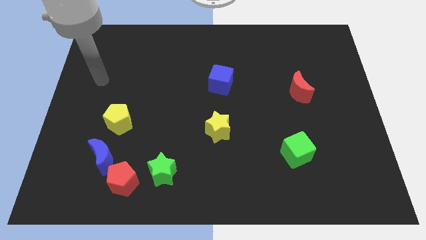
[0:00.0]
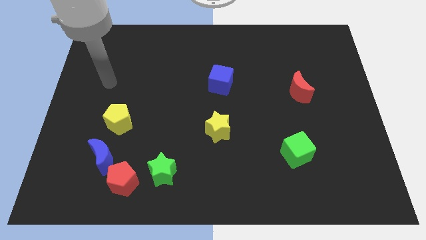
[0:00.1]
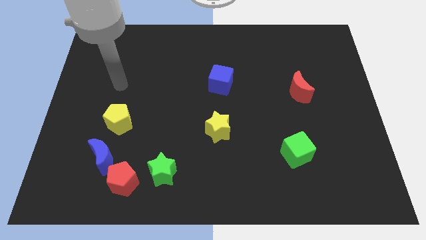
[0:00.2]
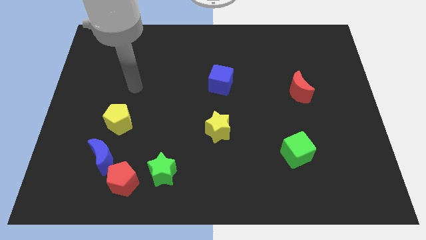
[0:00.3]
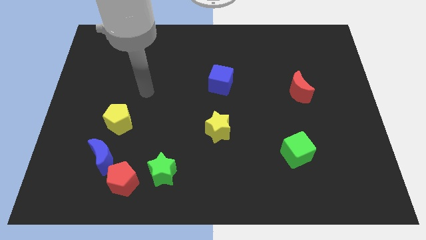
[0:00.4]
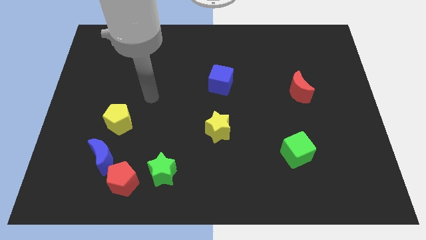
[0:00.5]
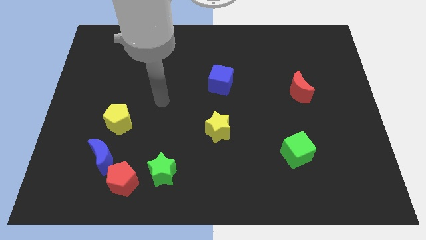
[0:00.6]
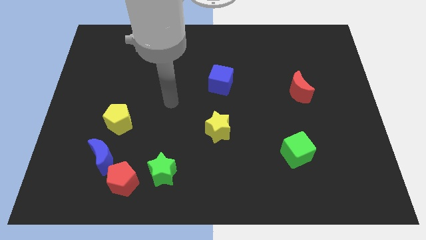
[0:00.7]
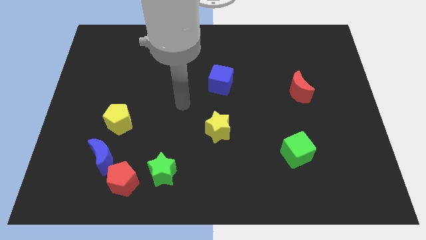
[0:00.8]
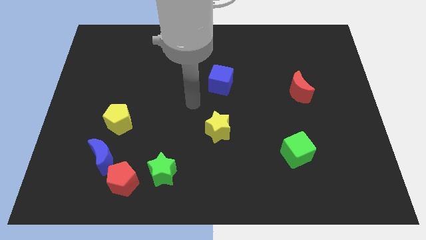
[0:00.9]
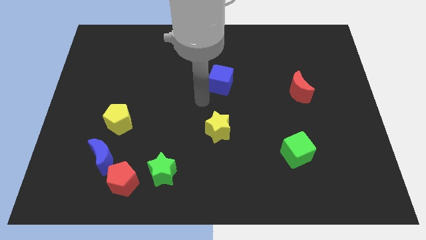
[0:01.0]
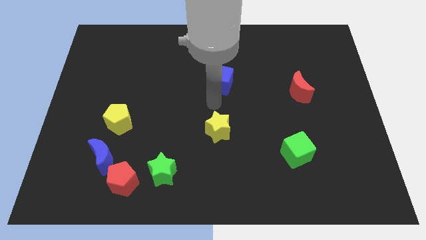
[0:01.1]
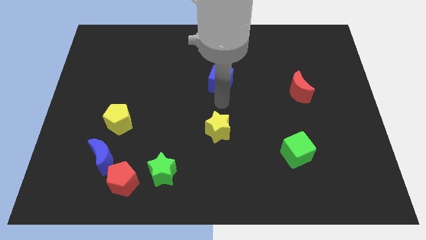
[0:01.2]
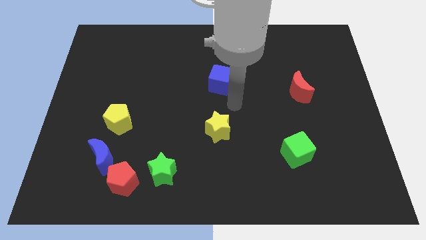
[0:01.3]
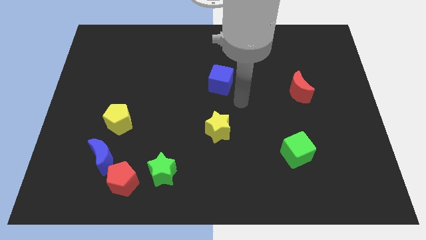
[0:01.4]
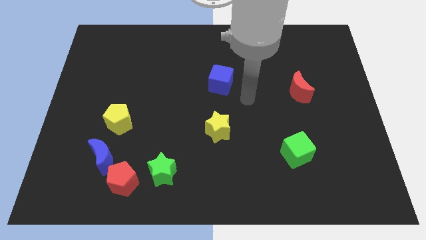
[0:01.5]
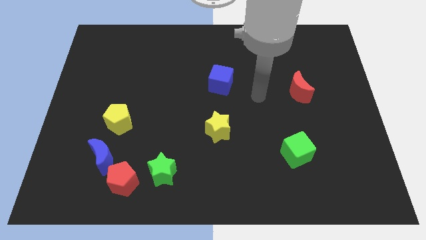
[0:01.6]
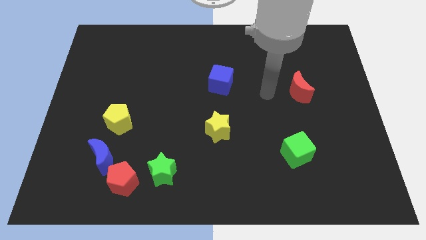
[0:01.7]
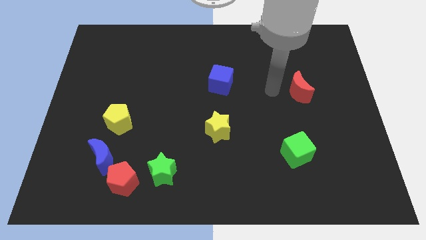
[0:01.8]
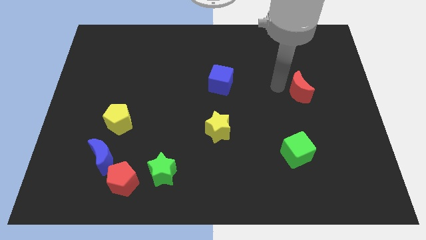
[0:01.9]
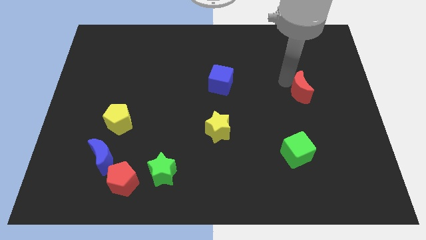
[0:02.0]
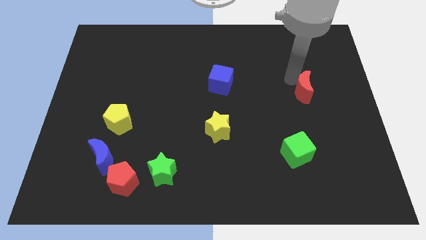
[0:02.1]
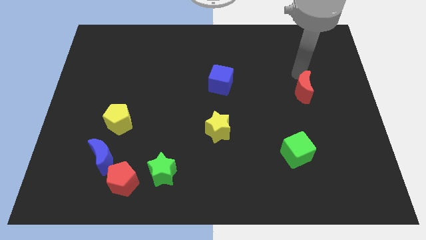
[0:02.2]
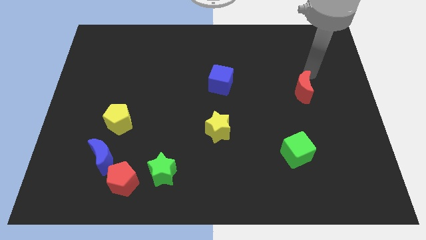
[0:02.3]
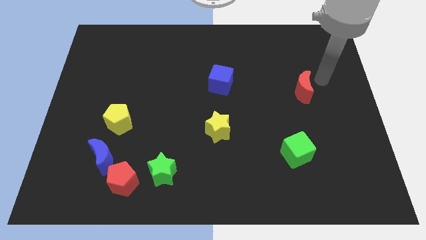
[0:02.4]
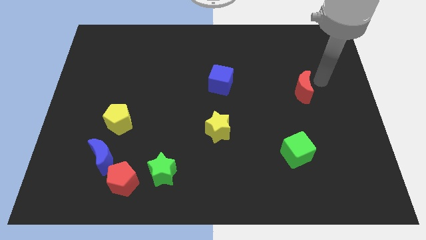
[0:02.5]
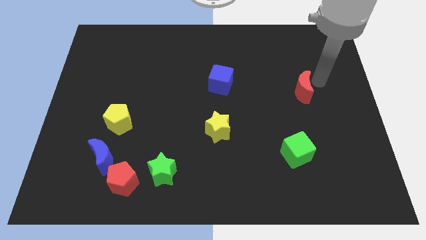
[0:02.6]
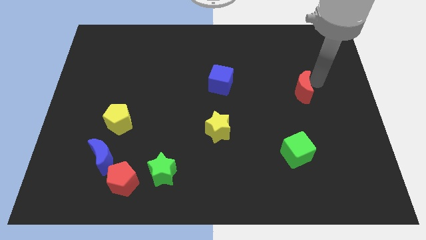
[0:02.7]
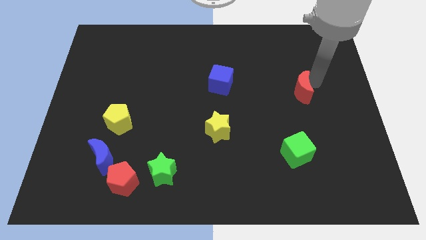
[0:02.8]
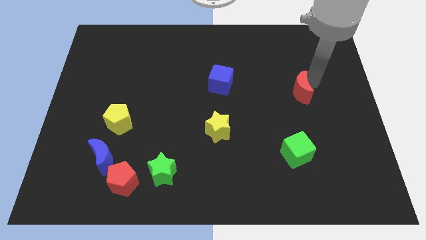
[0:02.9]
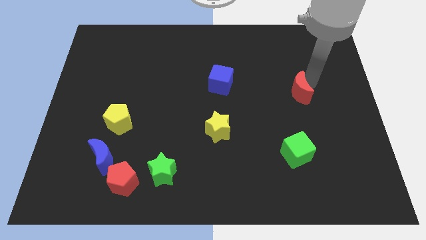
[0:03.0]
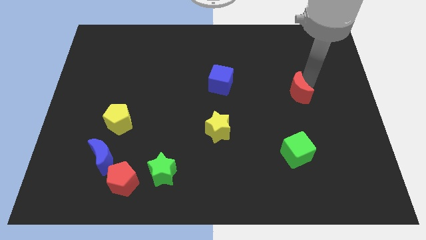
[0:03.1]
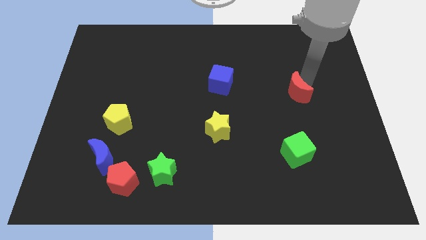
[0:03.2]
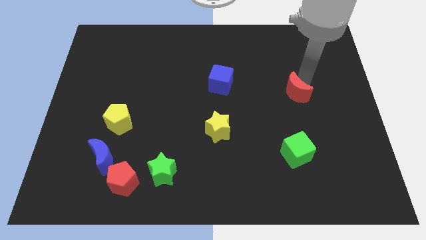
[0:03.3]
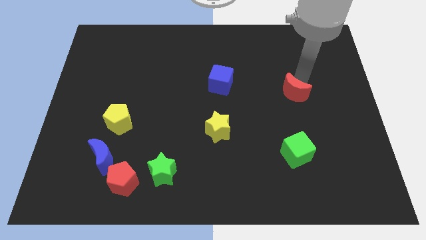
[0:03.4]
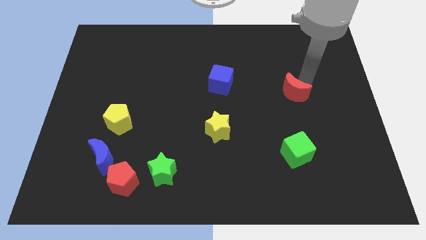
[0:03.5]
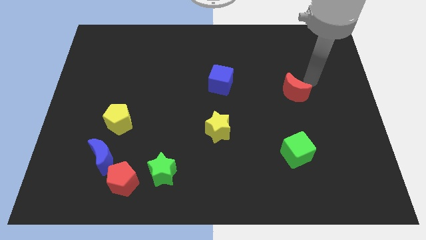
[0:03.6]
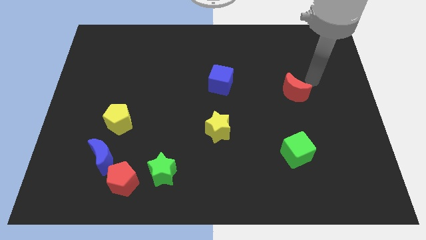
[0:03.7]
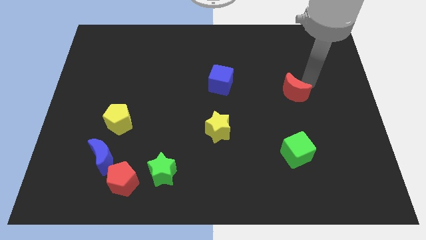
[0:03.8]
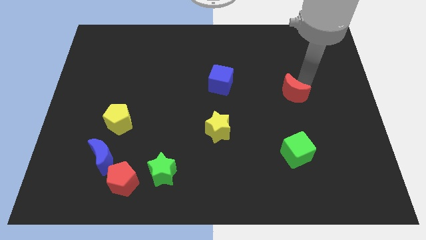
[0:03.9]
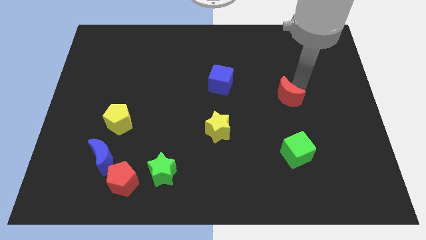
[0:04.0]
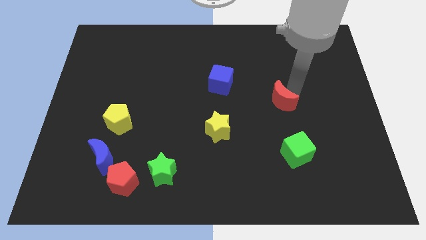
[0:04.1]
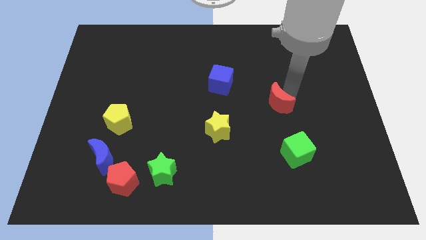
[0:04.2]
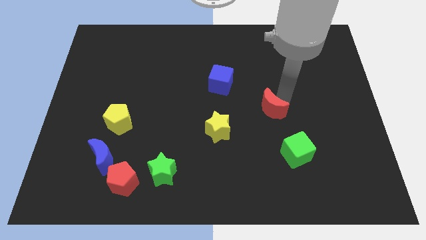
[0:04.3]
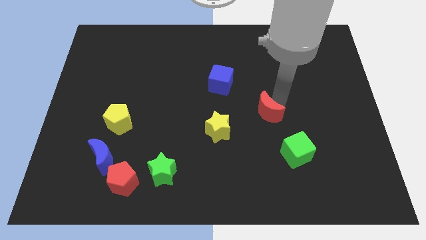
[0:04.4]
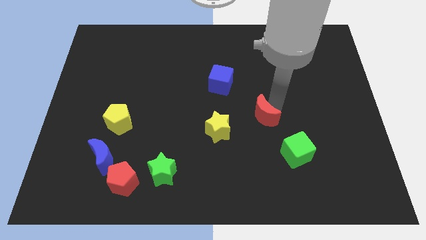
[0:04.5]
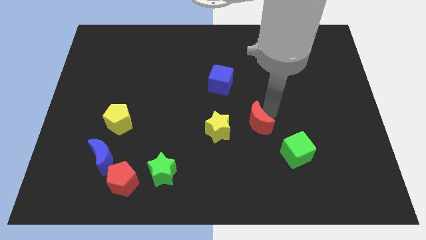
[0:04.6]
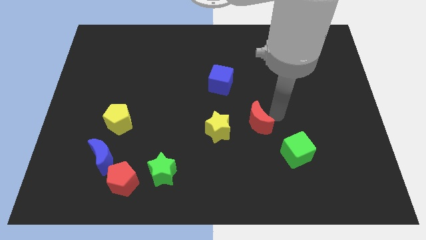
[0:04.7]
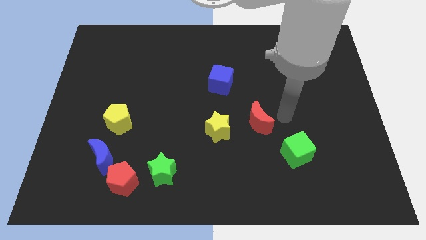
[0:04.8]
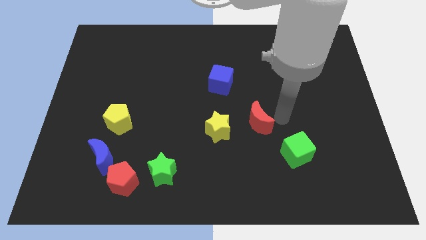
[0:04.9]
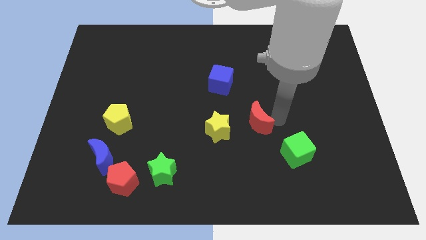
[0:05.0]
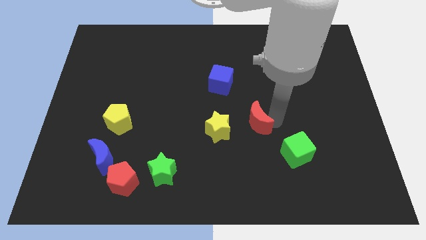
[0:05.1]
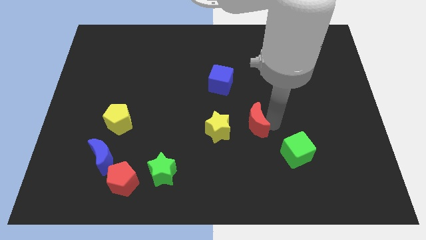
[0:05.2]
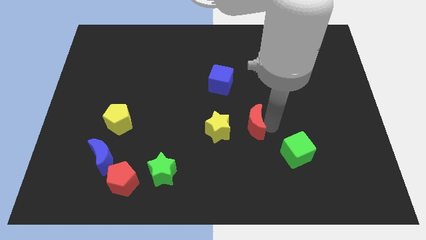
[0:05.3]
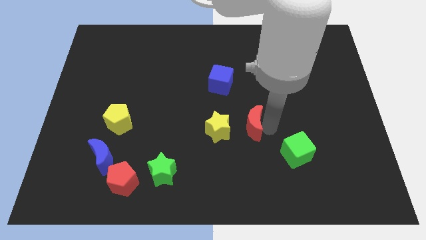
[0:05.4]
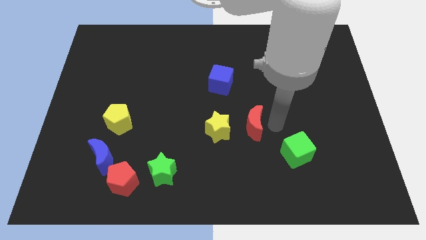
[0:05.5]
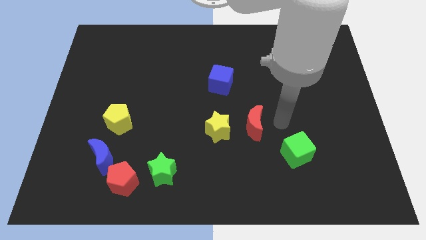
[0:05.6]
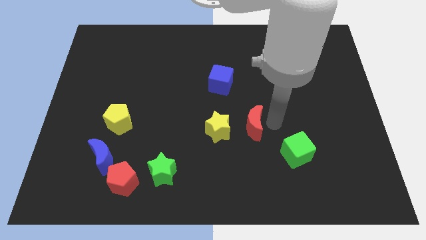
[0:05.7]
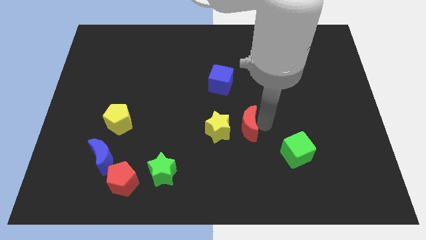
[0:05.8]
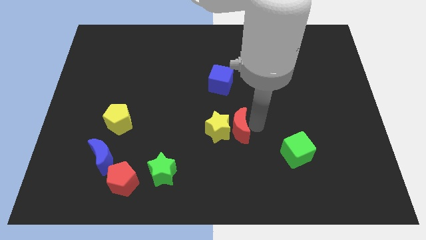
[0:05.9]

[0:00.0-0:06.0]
push the red moon to the yellow star
